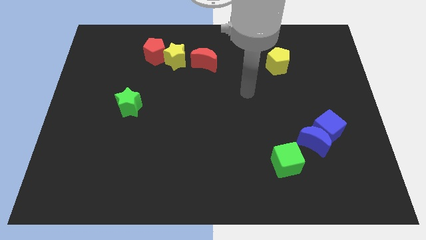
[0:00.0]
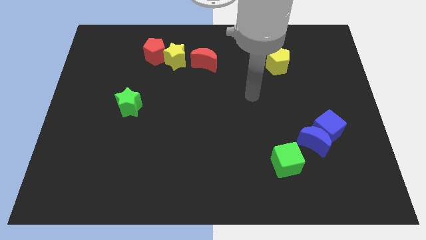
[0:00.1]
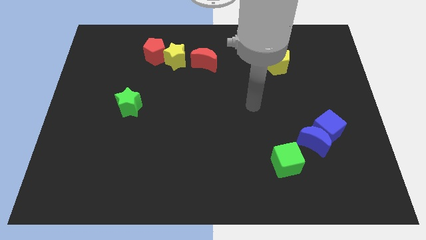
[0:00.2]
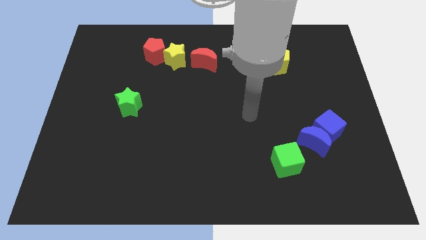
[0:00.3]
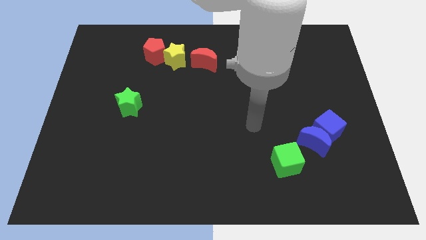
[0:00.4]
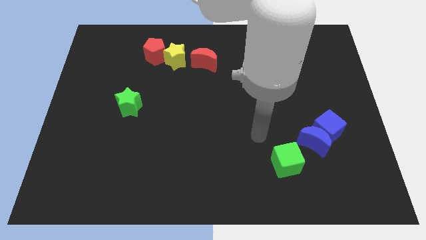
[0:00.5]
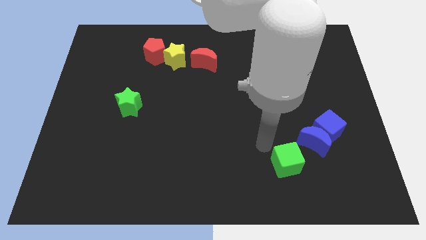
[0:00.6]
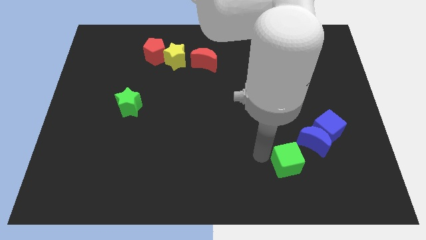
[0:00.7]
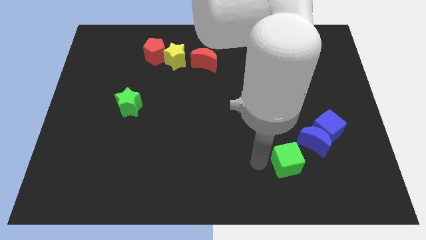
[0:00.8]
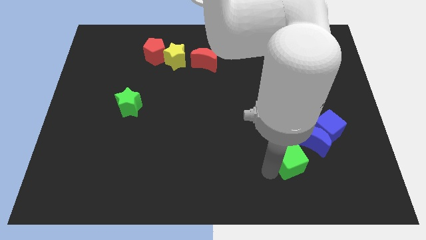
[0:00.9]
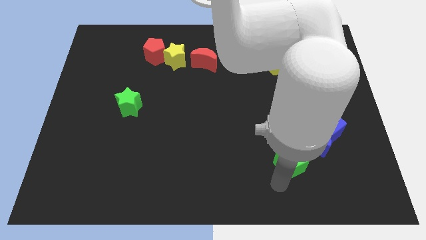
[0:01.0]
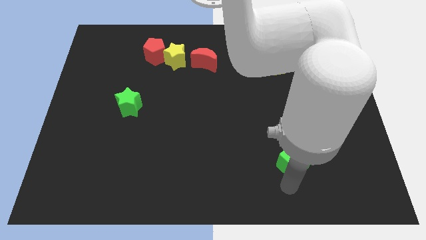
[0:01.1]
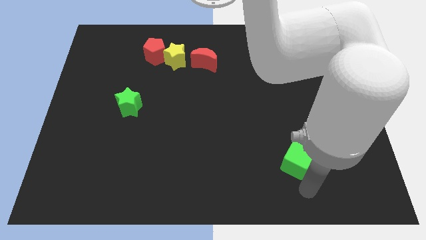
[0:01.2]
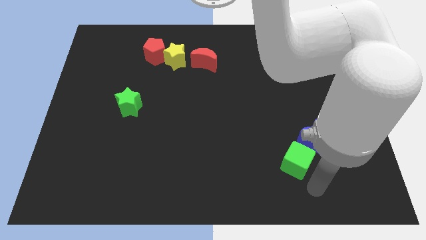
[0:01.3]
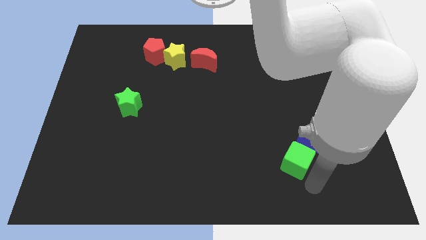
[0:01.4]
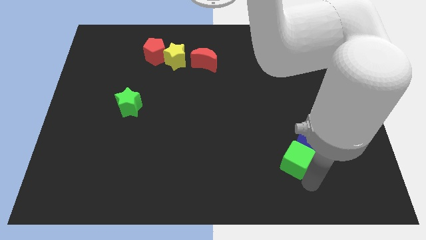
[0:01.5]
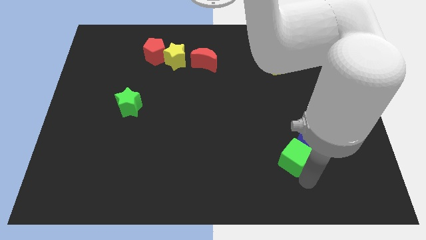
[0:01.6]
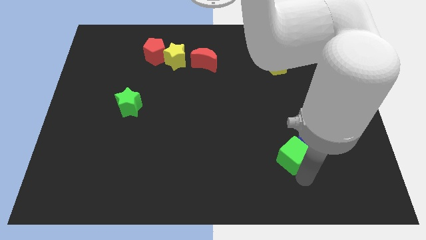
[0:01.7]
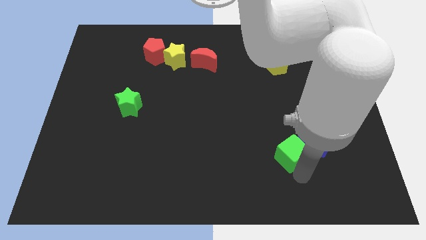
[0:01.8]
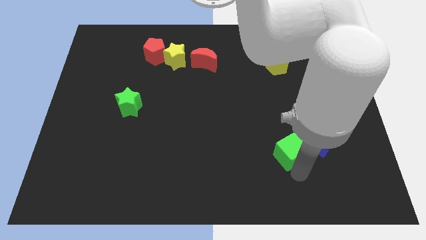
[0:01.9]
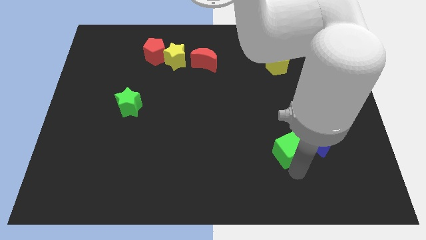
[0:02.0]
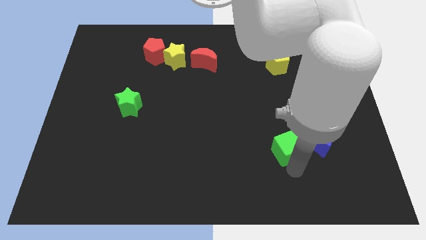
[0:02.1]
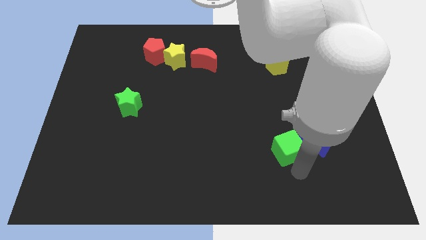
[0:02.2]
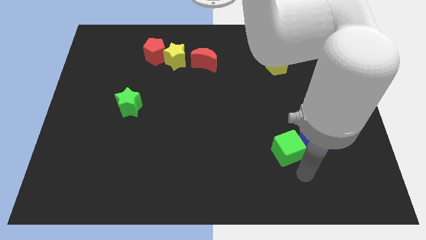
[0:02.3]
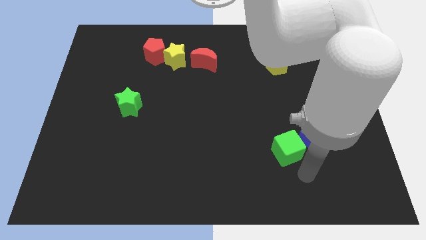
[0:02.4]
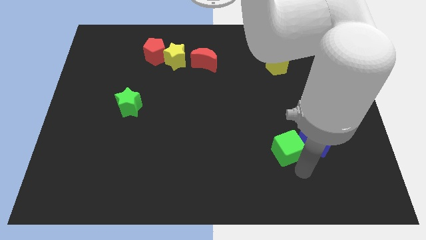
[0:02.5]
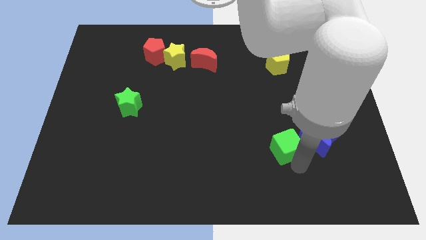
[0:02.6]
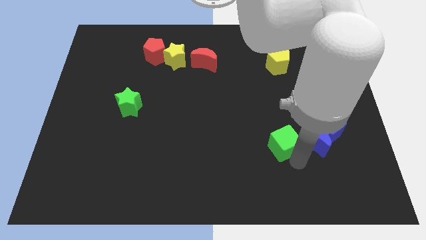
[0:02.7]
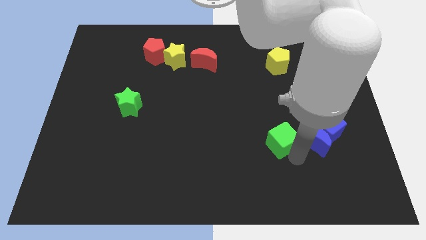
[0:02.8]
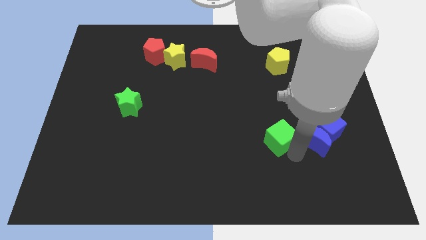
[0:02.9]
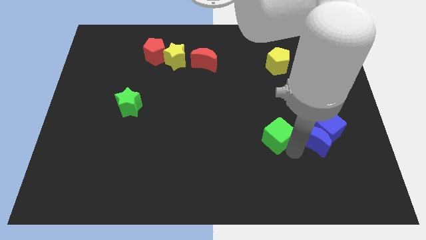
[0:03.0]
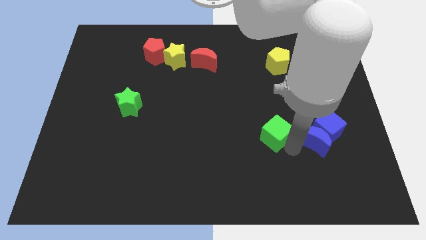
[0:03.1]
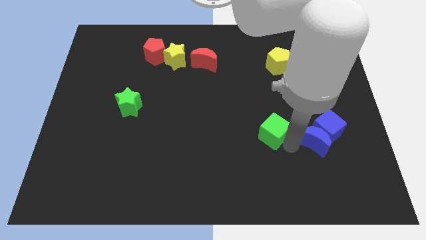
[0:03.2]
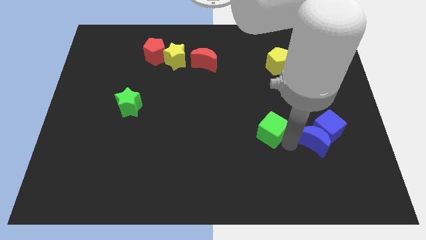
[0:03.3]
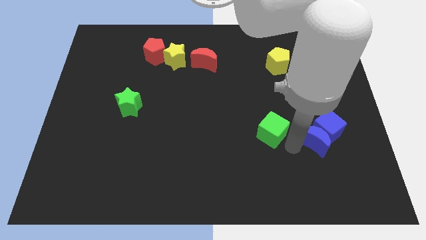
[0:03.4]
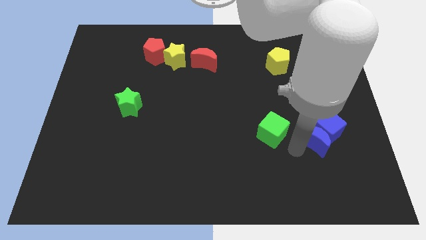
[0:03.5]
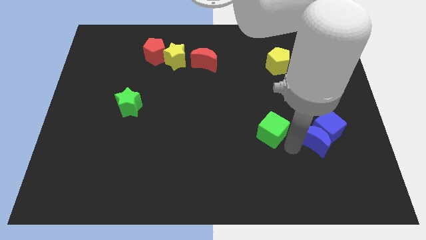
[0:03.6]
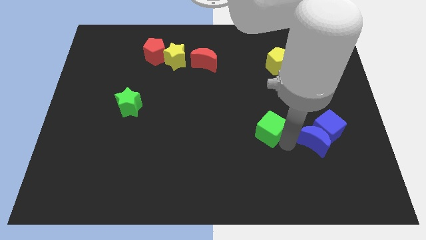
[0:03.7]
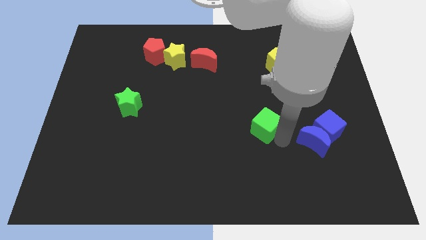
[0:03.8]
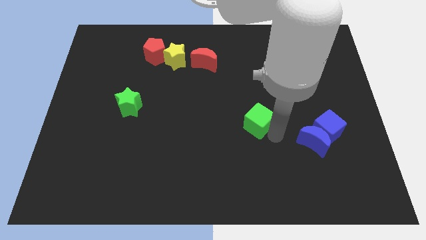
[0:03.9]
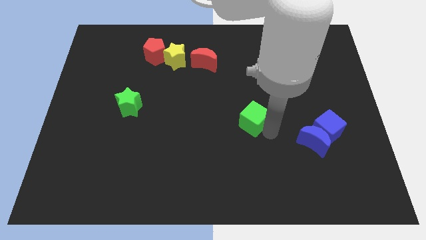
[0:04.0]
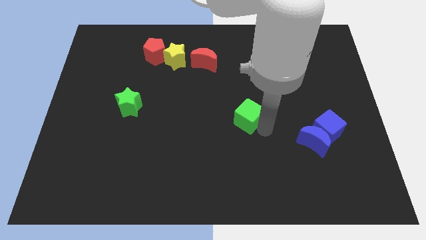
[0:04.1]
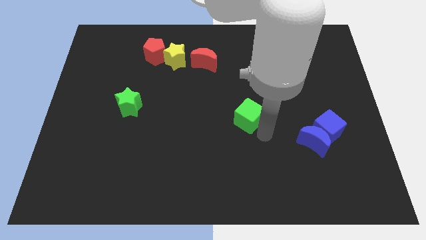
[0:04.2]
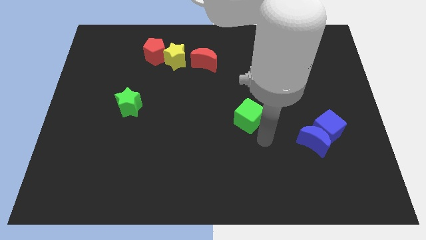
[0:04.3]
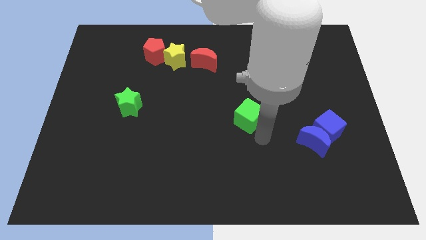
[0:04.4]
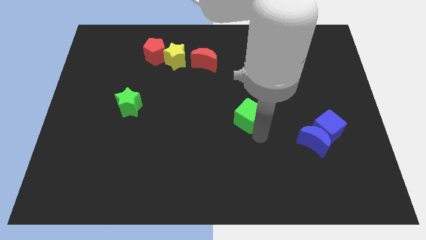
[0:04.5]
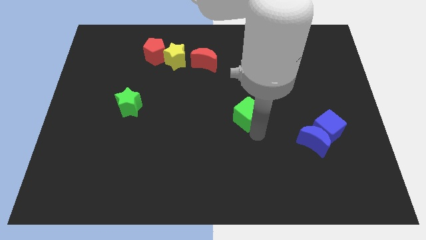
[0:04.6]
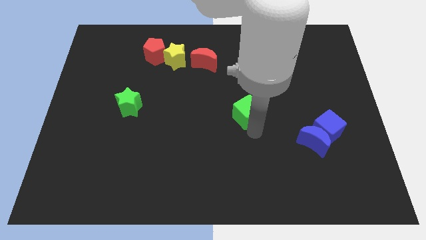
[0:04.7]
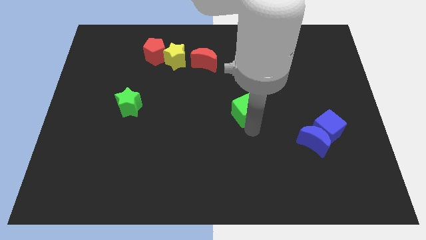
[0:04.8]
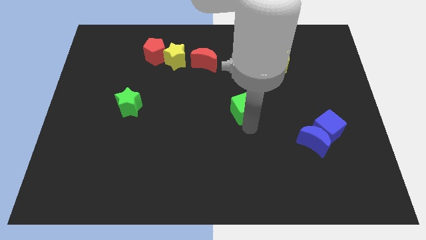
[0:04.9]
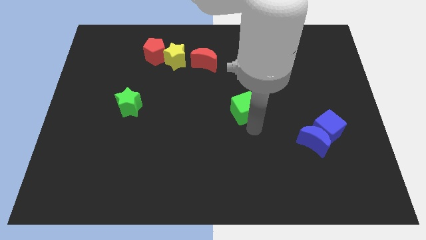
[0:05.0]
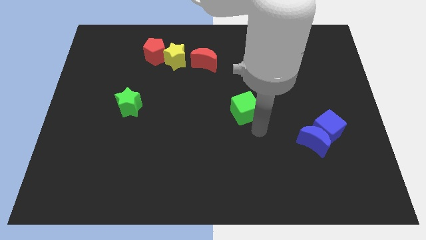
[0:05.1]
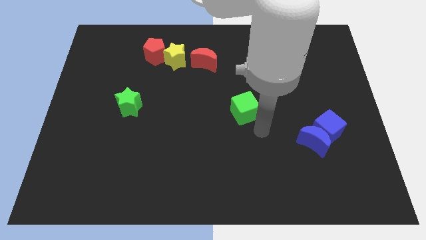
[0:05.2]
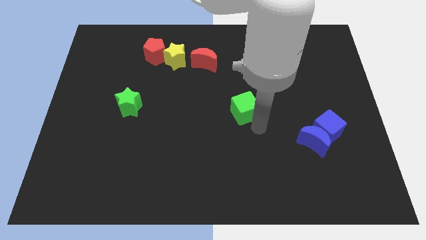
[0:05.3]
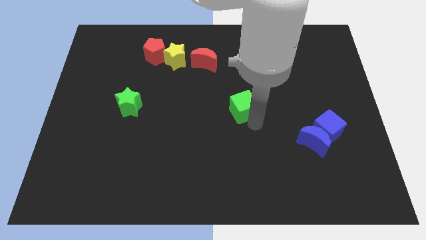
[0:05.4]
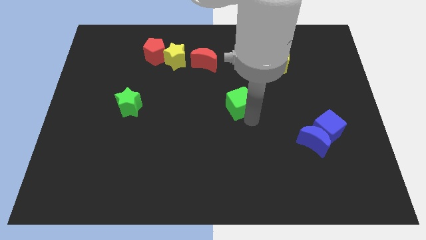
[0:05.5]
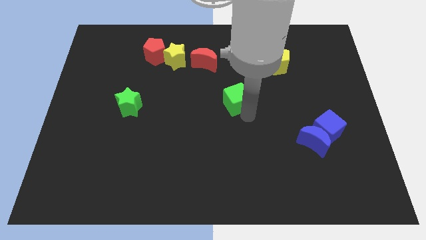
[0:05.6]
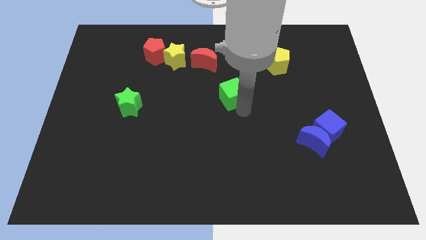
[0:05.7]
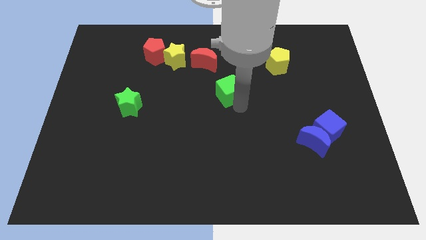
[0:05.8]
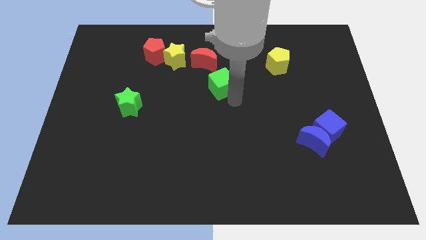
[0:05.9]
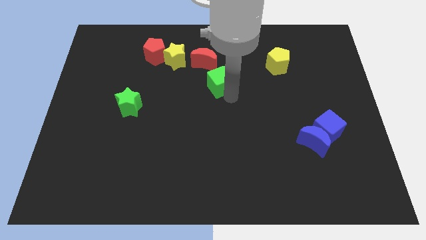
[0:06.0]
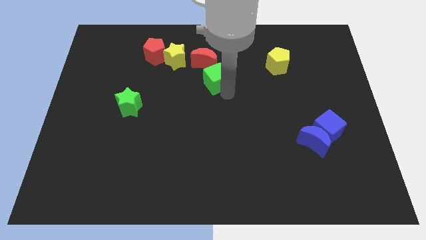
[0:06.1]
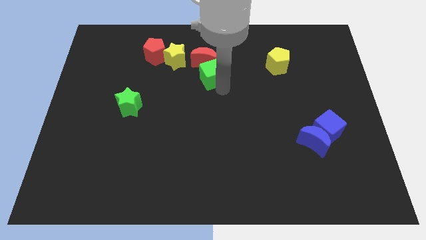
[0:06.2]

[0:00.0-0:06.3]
slide the green cube close to the red moon

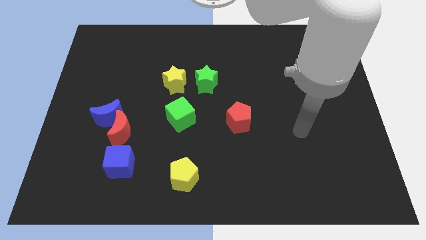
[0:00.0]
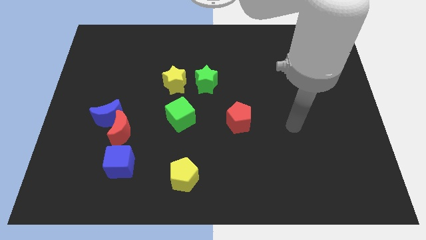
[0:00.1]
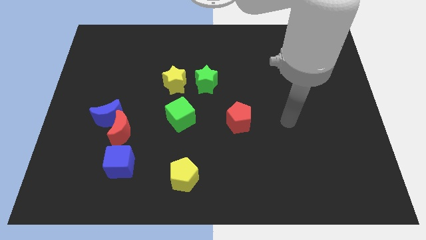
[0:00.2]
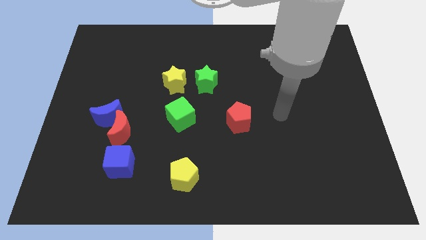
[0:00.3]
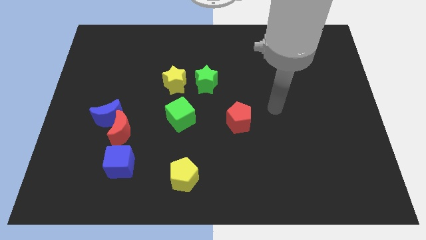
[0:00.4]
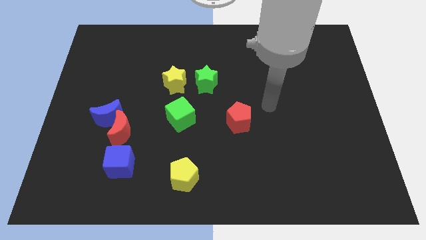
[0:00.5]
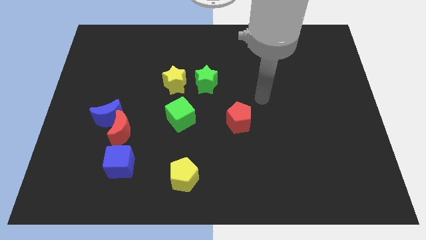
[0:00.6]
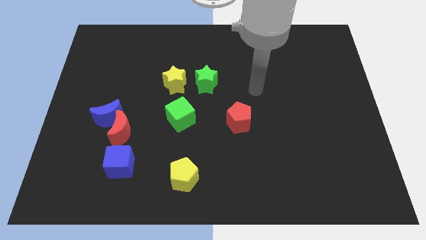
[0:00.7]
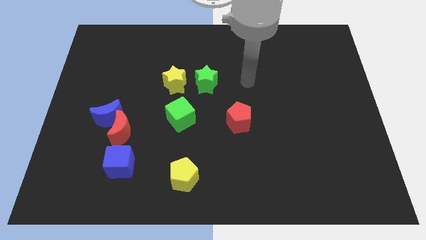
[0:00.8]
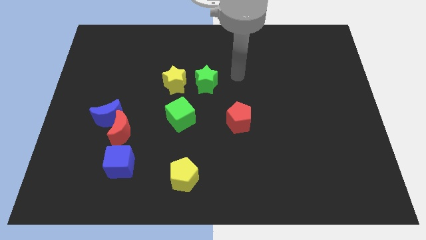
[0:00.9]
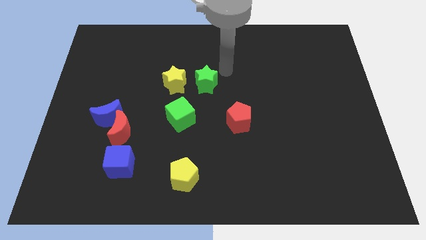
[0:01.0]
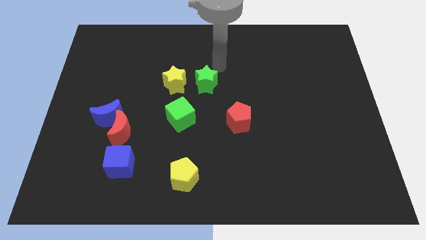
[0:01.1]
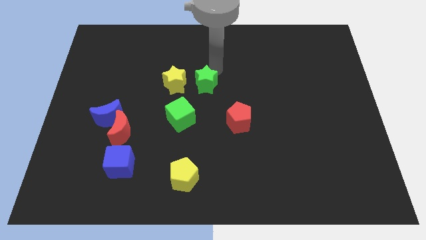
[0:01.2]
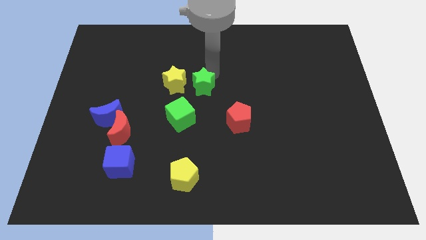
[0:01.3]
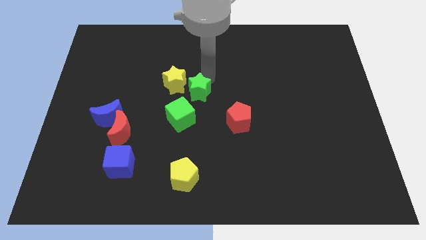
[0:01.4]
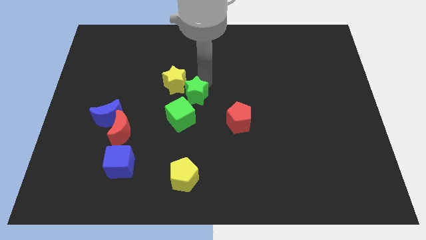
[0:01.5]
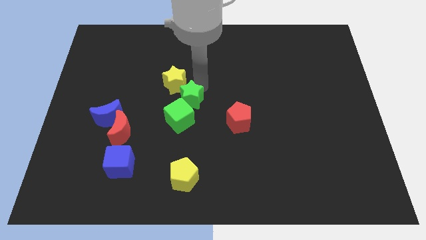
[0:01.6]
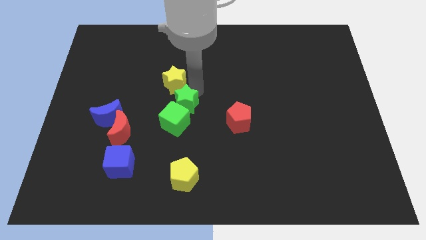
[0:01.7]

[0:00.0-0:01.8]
slide the green star close to the green cube
